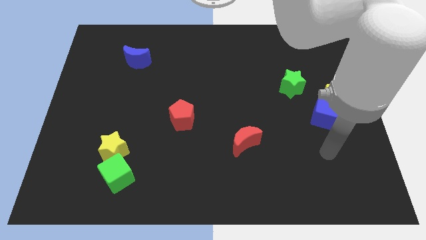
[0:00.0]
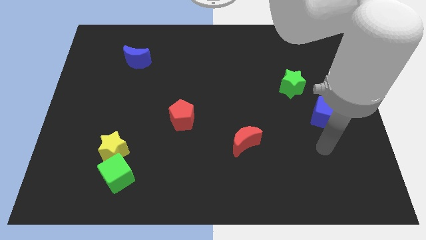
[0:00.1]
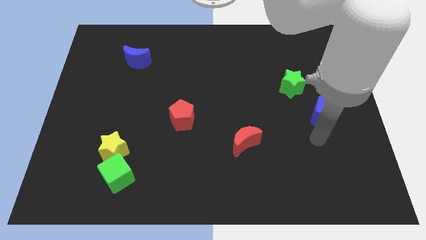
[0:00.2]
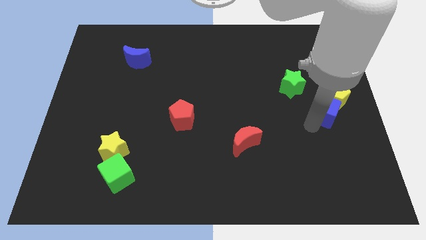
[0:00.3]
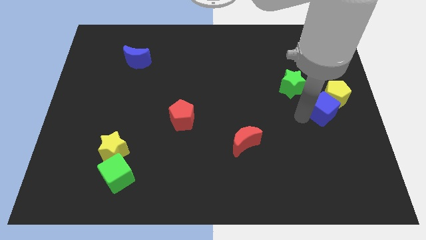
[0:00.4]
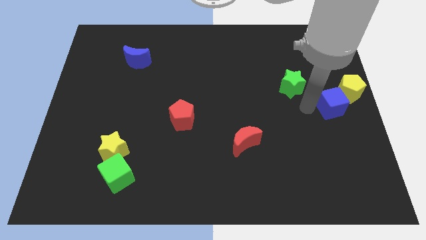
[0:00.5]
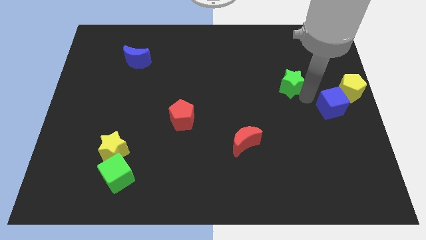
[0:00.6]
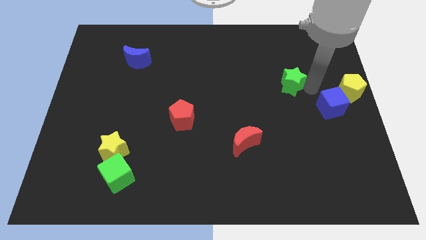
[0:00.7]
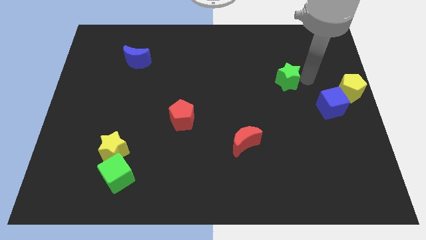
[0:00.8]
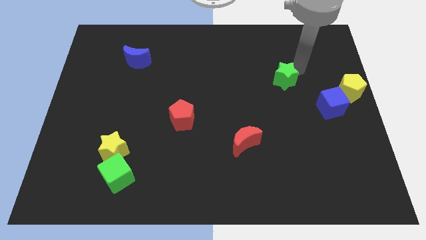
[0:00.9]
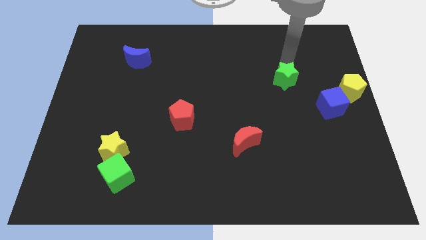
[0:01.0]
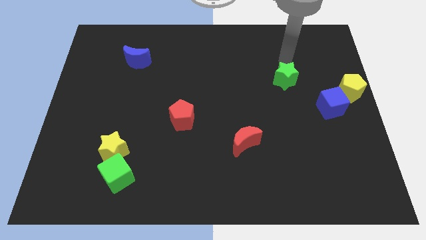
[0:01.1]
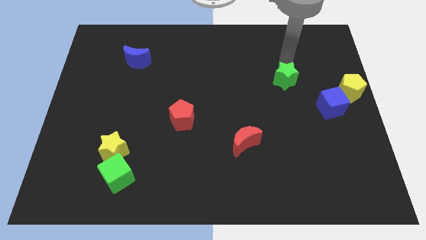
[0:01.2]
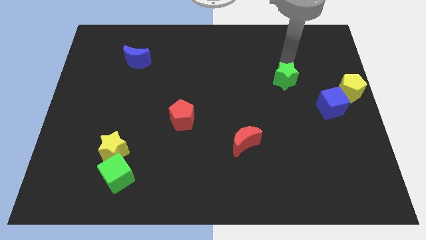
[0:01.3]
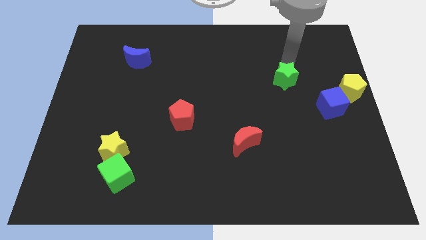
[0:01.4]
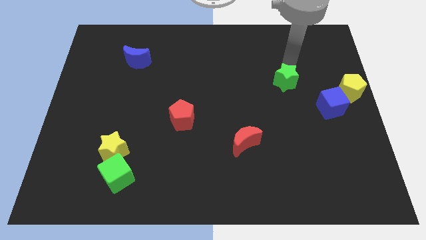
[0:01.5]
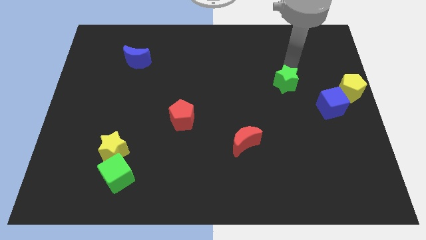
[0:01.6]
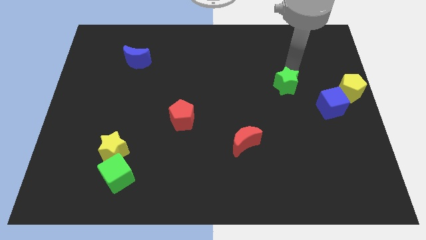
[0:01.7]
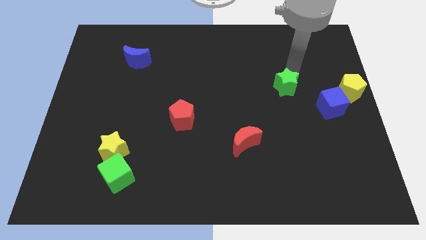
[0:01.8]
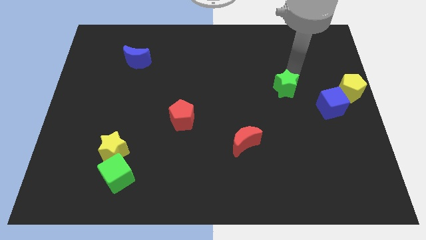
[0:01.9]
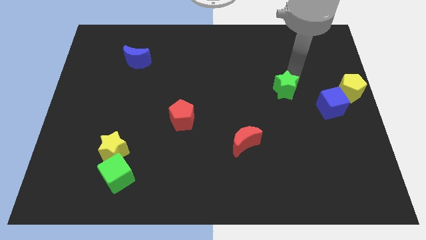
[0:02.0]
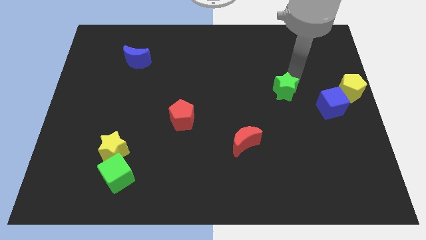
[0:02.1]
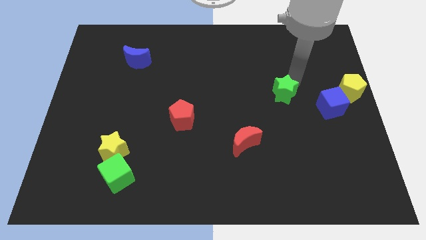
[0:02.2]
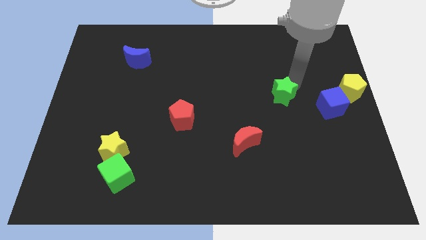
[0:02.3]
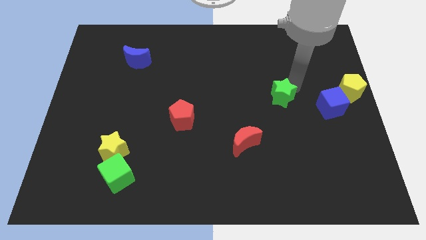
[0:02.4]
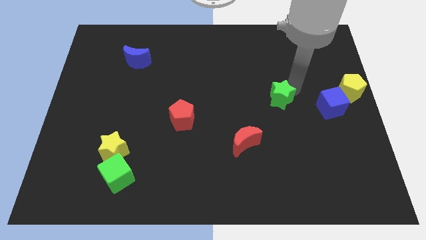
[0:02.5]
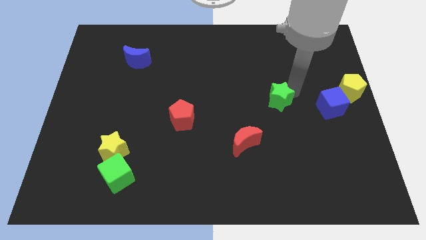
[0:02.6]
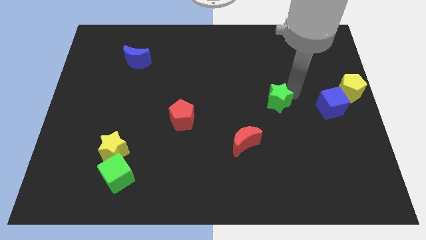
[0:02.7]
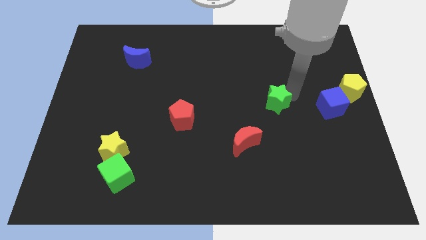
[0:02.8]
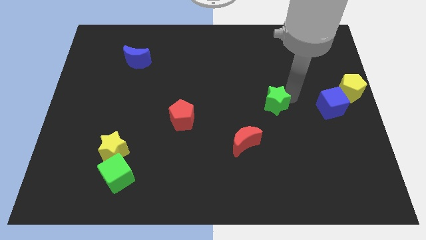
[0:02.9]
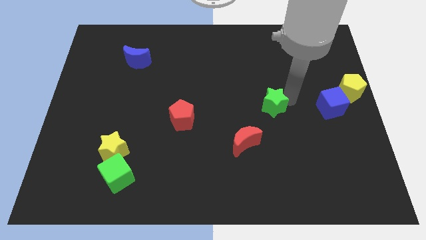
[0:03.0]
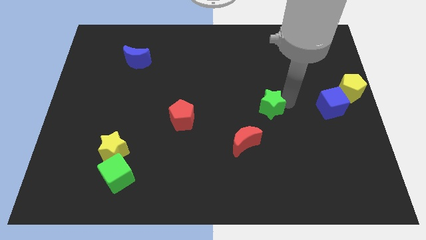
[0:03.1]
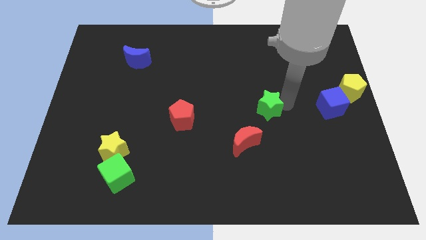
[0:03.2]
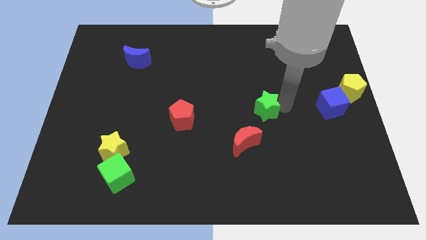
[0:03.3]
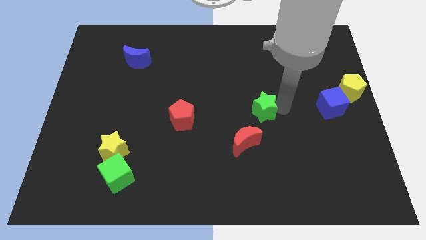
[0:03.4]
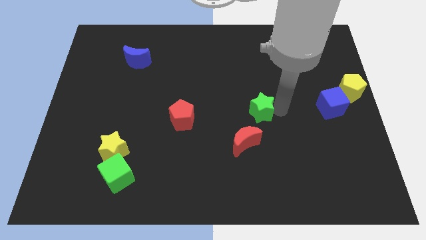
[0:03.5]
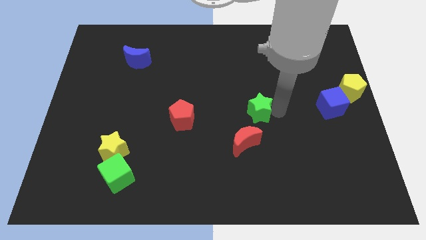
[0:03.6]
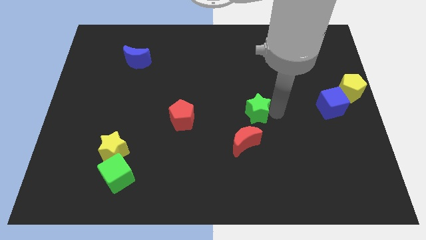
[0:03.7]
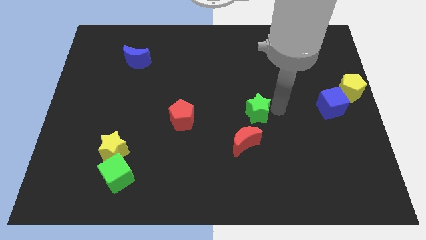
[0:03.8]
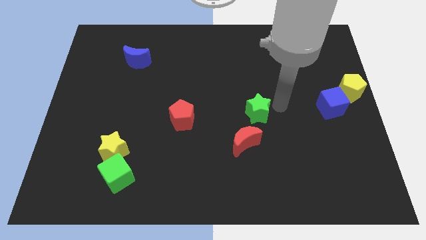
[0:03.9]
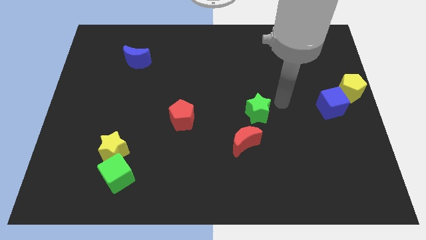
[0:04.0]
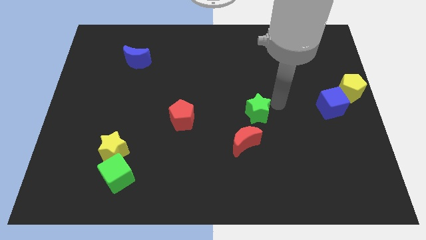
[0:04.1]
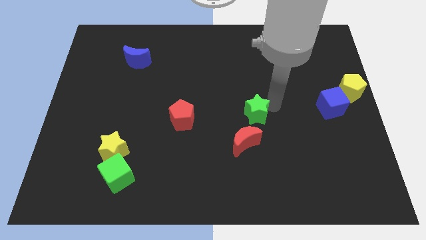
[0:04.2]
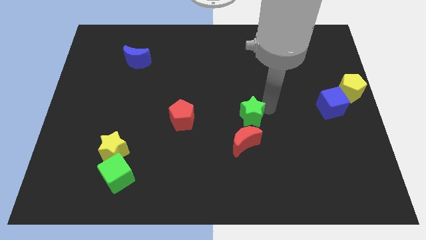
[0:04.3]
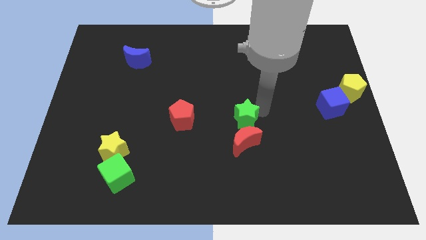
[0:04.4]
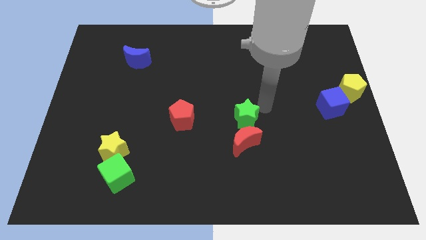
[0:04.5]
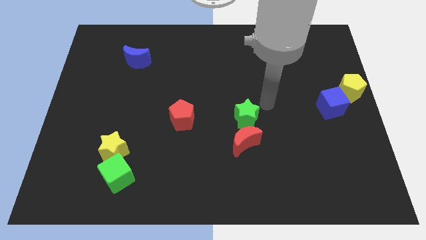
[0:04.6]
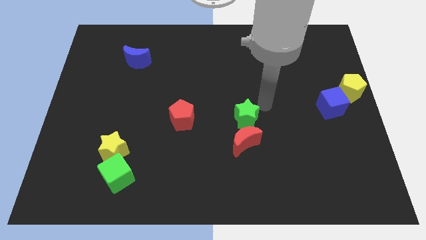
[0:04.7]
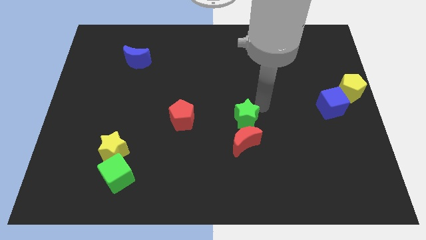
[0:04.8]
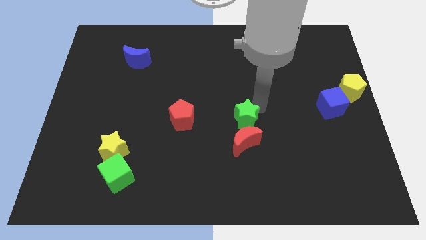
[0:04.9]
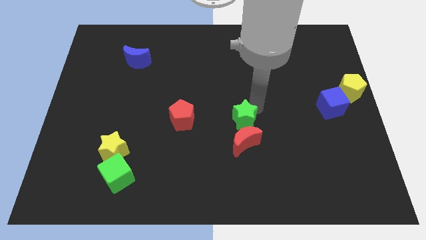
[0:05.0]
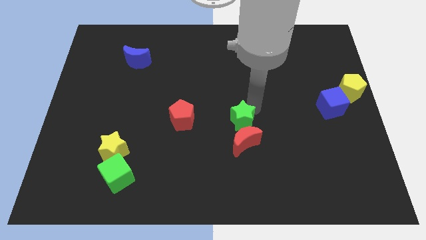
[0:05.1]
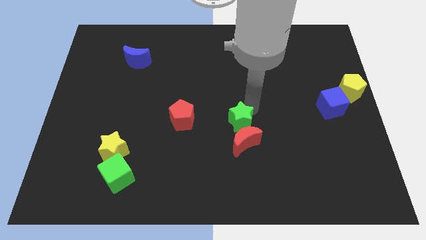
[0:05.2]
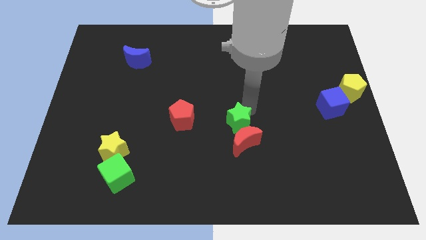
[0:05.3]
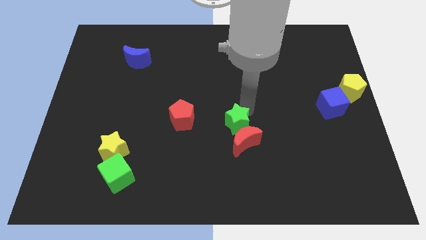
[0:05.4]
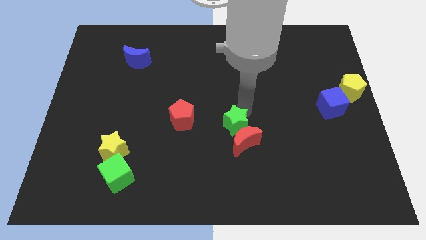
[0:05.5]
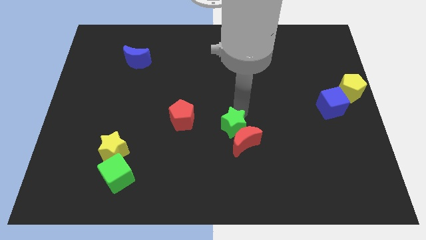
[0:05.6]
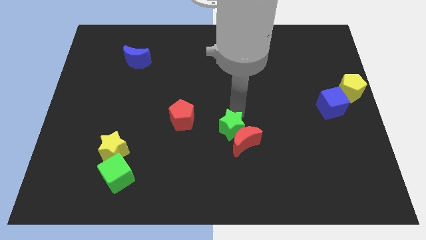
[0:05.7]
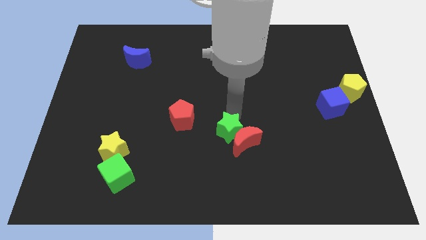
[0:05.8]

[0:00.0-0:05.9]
slide the green star down and then to the left

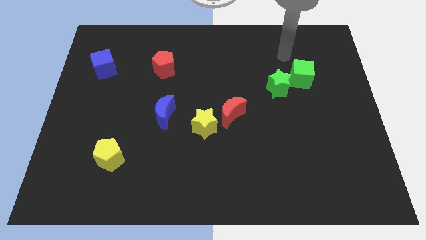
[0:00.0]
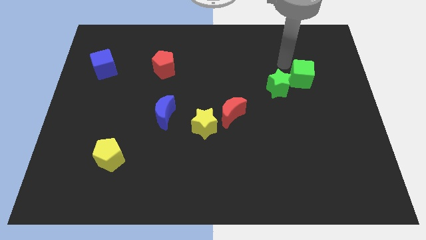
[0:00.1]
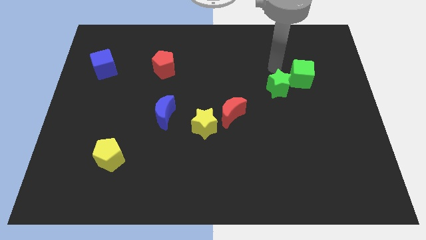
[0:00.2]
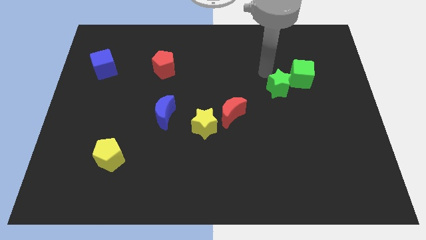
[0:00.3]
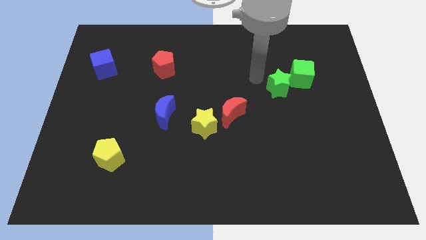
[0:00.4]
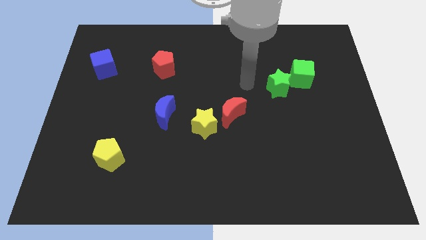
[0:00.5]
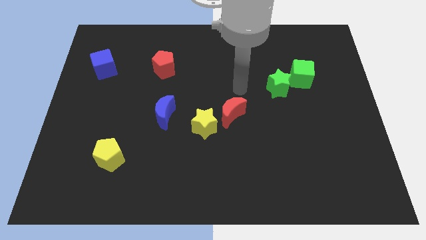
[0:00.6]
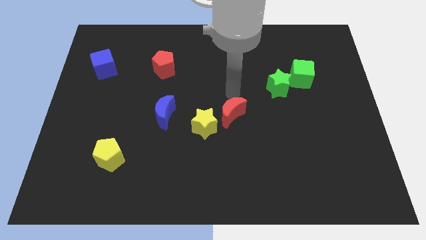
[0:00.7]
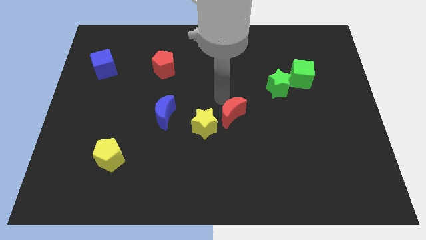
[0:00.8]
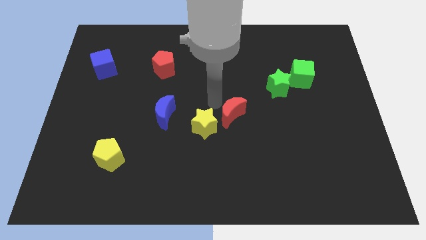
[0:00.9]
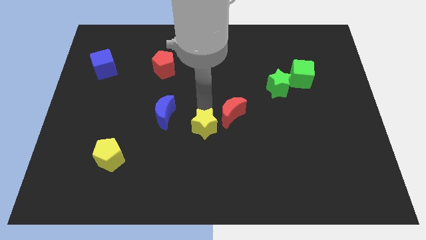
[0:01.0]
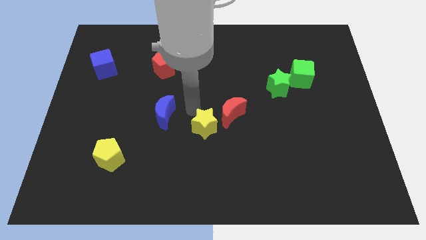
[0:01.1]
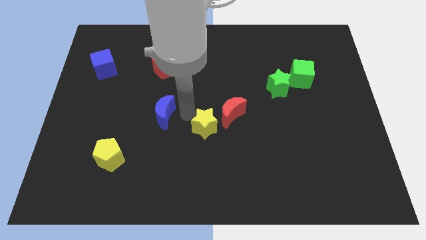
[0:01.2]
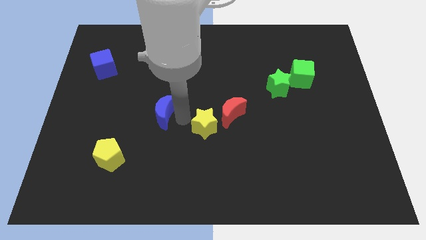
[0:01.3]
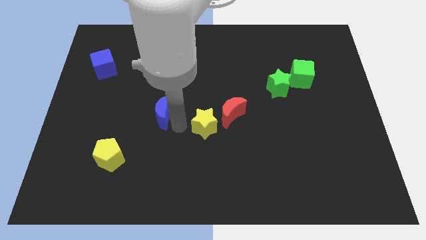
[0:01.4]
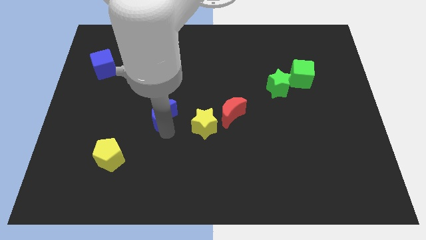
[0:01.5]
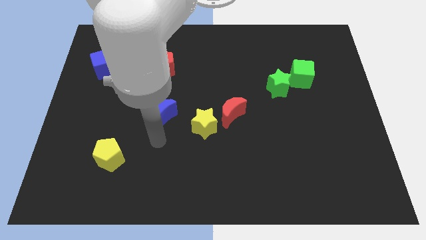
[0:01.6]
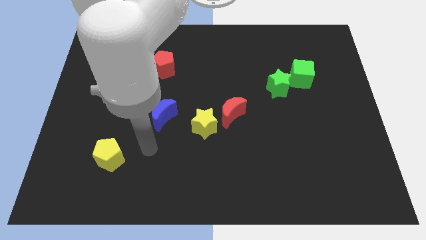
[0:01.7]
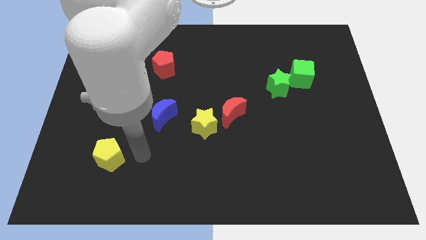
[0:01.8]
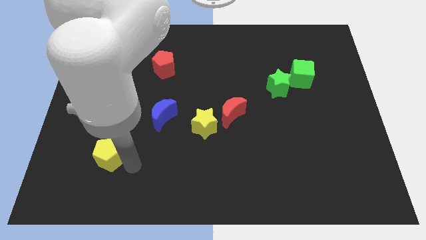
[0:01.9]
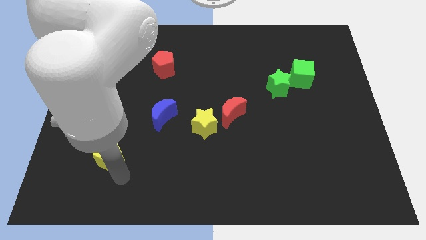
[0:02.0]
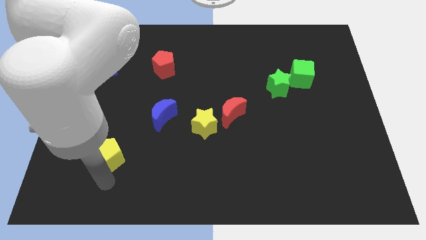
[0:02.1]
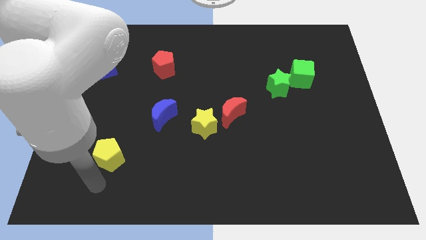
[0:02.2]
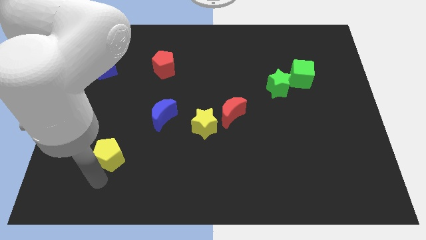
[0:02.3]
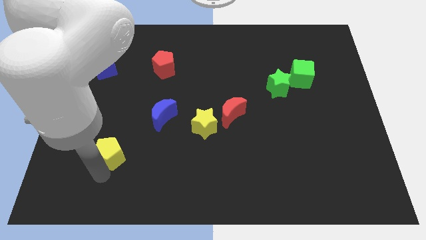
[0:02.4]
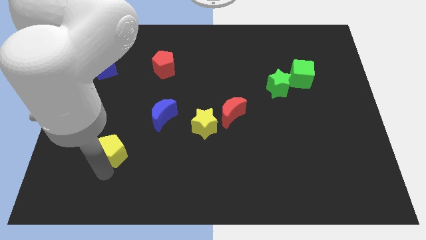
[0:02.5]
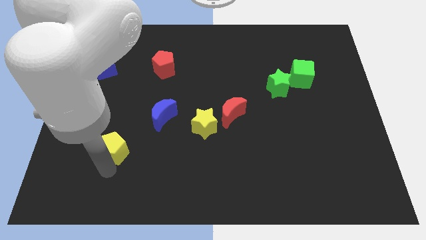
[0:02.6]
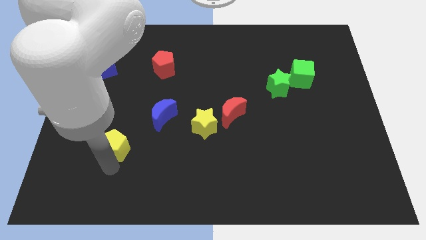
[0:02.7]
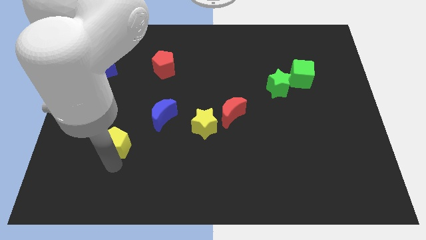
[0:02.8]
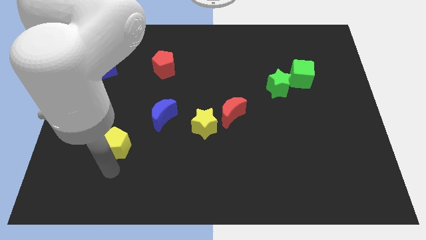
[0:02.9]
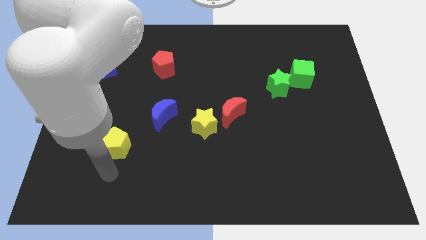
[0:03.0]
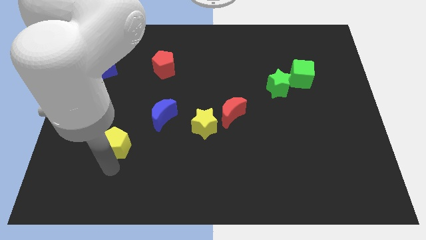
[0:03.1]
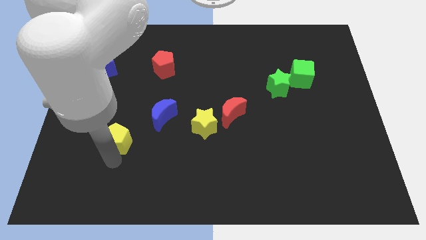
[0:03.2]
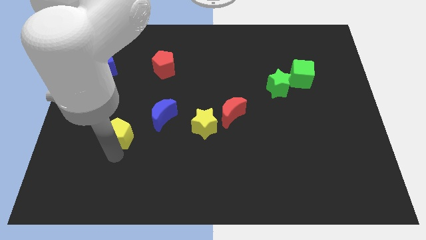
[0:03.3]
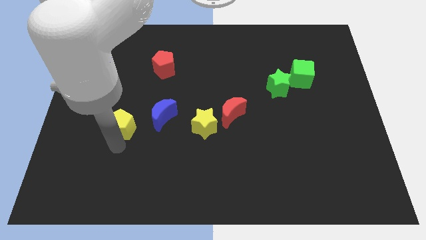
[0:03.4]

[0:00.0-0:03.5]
push the yellow pentagon a little bit up
